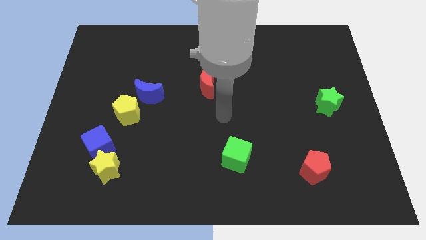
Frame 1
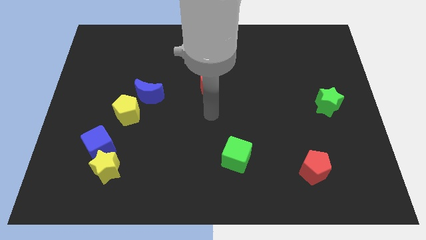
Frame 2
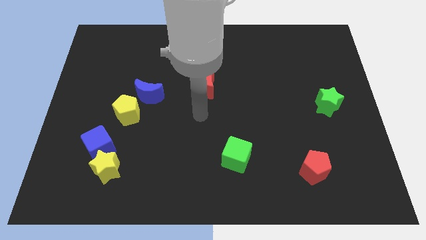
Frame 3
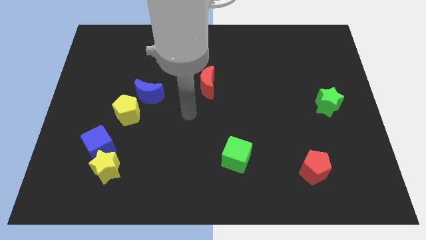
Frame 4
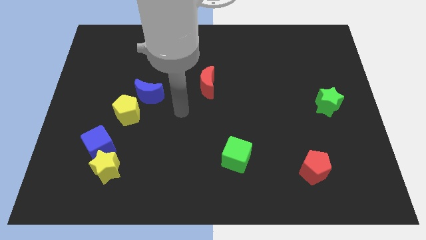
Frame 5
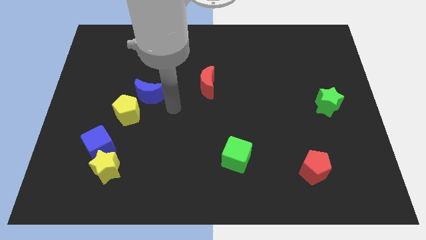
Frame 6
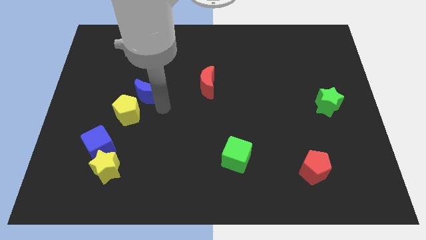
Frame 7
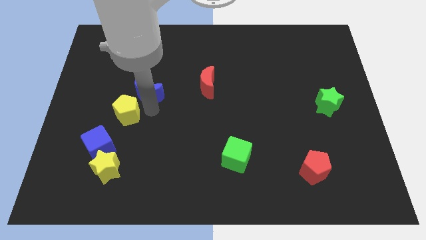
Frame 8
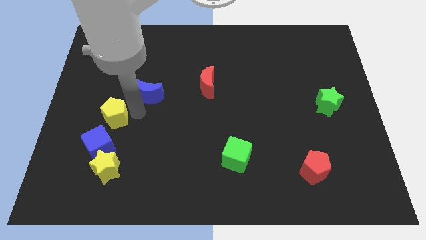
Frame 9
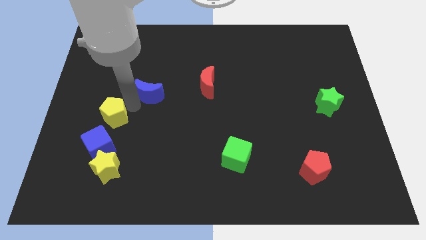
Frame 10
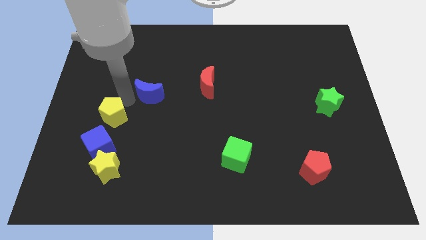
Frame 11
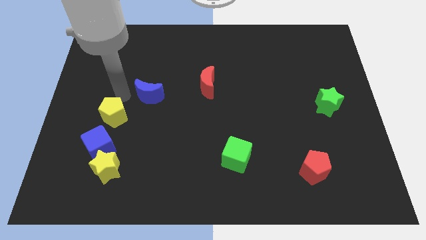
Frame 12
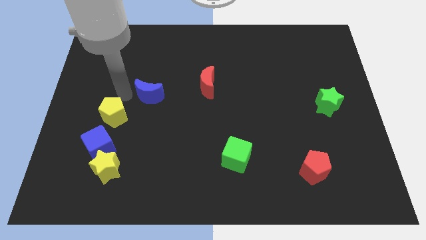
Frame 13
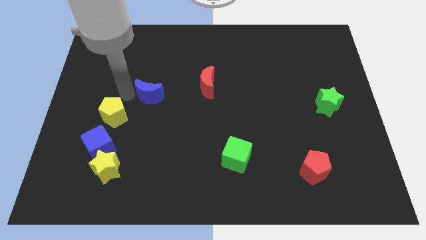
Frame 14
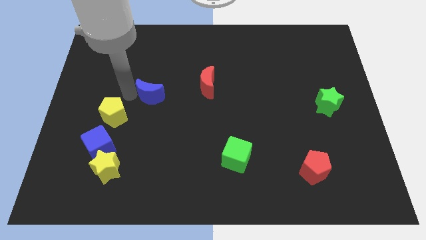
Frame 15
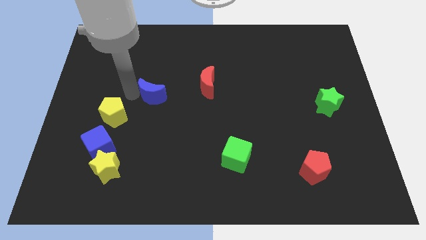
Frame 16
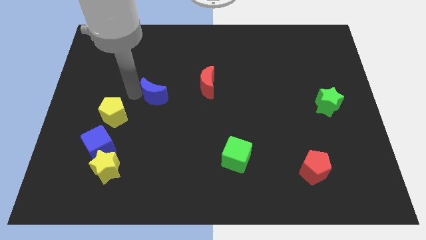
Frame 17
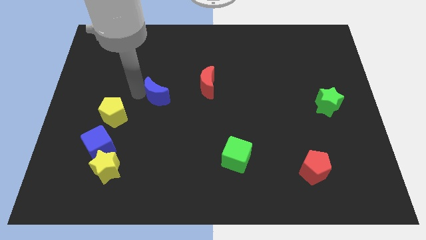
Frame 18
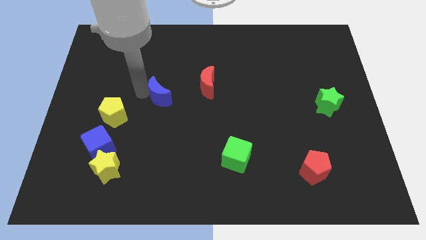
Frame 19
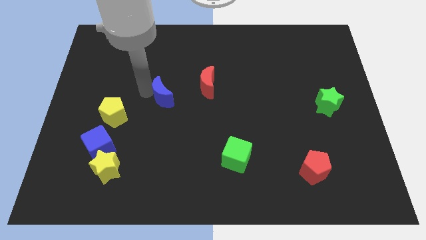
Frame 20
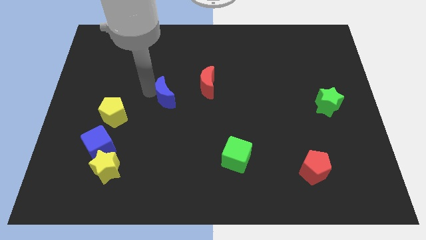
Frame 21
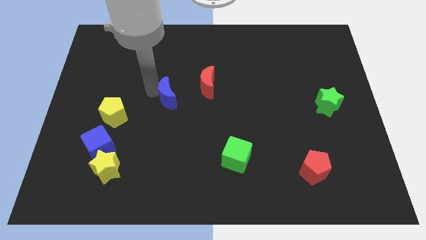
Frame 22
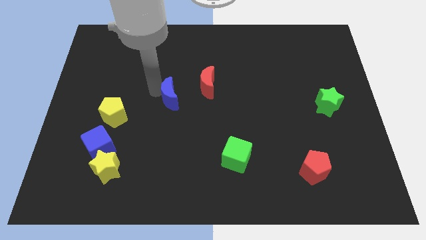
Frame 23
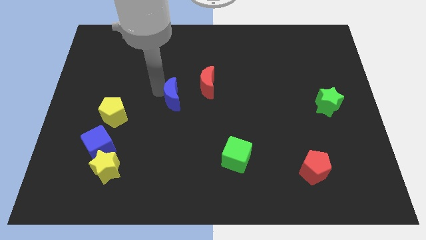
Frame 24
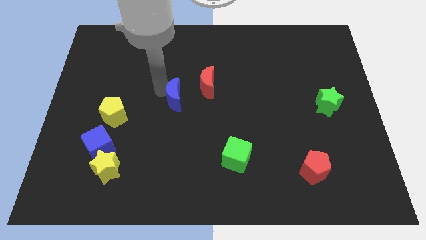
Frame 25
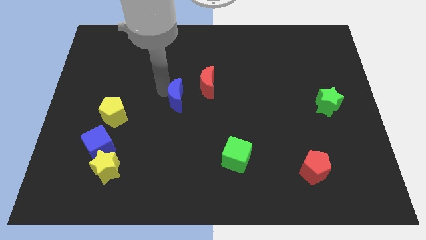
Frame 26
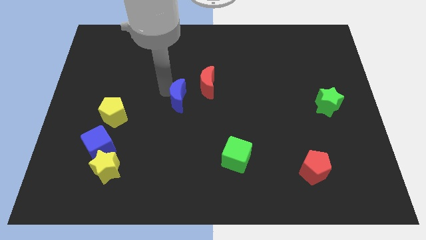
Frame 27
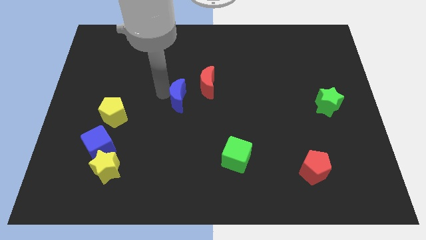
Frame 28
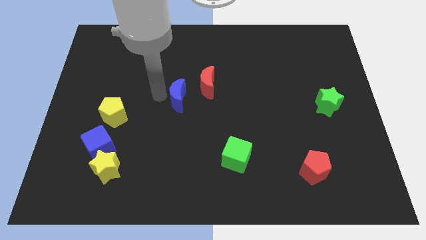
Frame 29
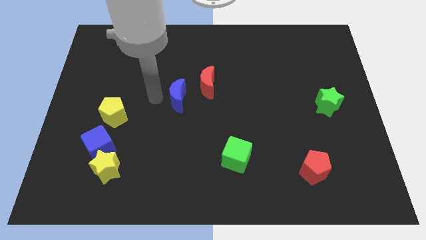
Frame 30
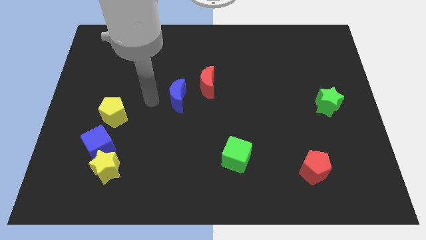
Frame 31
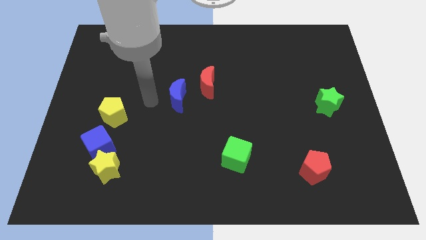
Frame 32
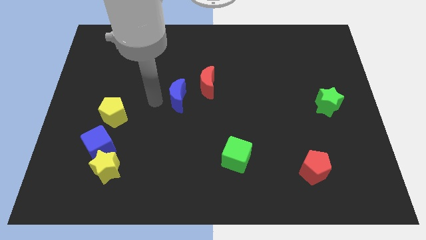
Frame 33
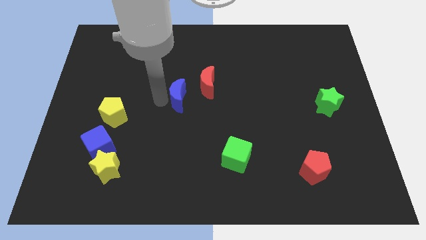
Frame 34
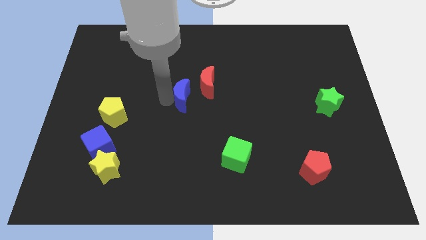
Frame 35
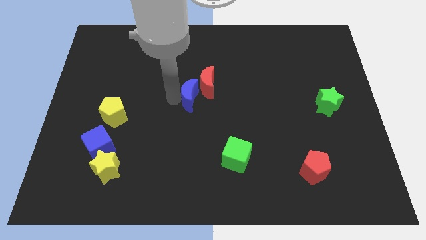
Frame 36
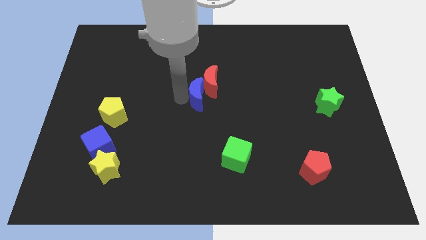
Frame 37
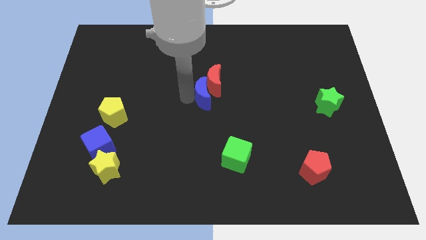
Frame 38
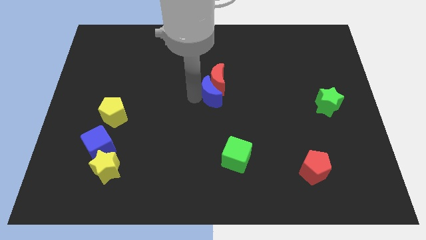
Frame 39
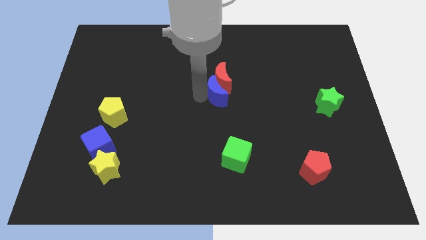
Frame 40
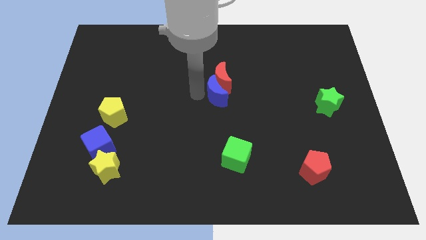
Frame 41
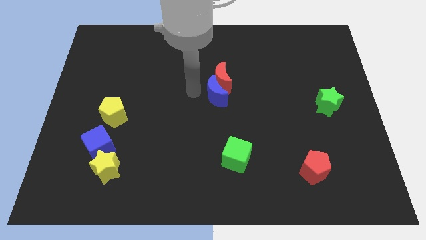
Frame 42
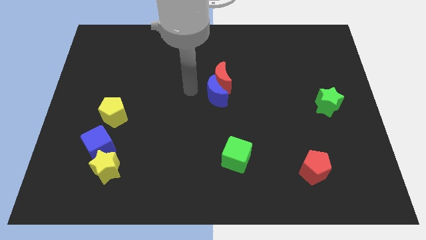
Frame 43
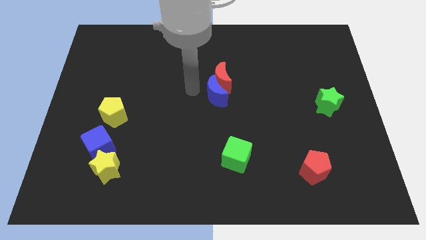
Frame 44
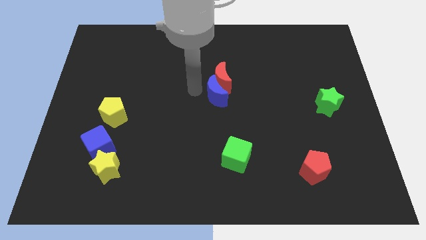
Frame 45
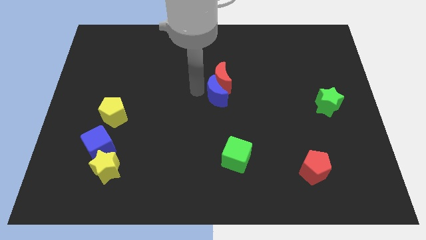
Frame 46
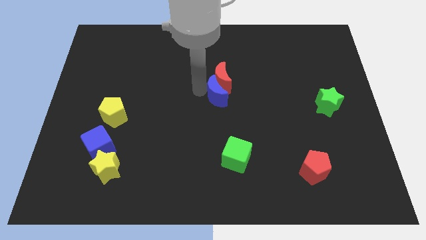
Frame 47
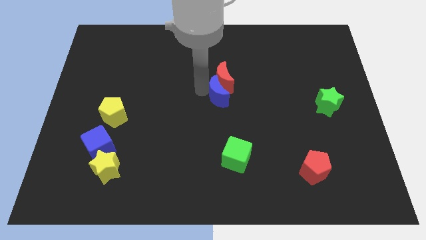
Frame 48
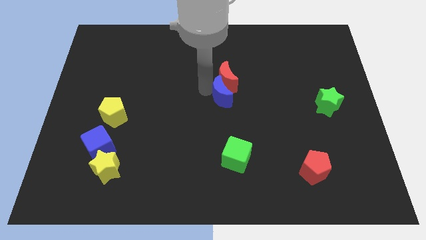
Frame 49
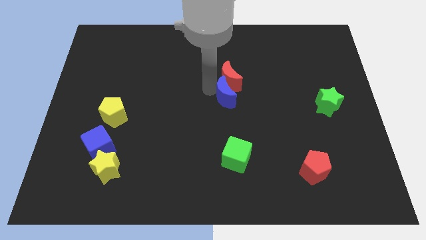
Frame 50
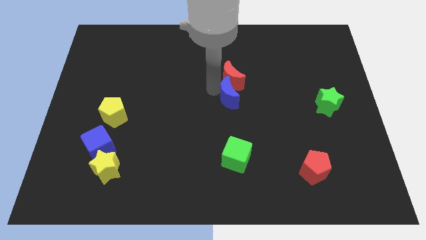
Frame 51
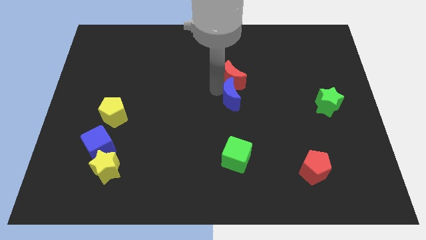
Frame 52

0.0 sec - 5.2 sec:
move the blue moon to the right

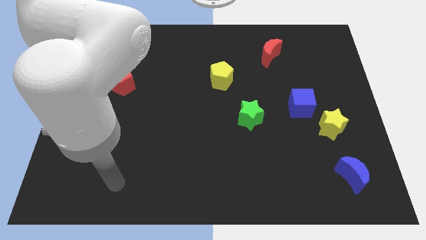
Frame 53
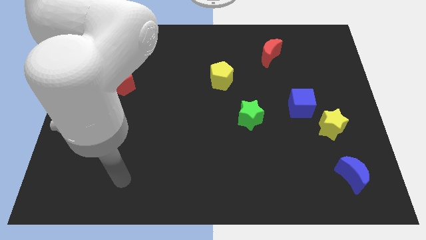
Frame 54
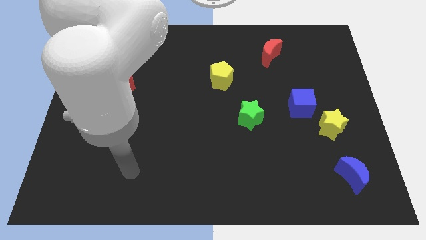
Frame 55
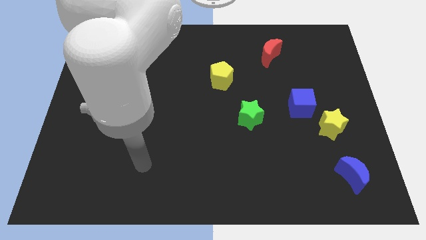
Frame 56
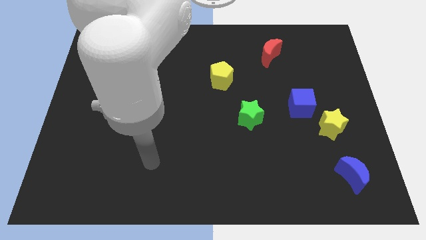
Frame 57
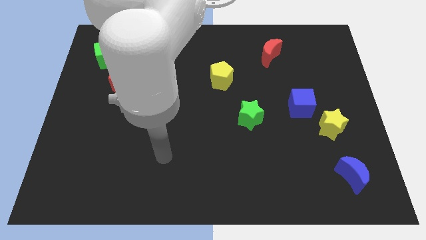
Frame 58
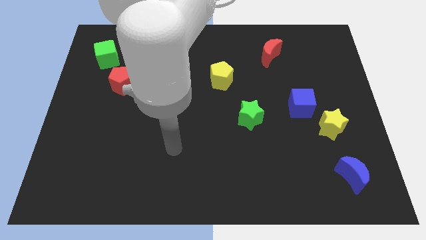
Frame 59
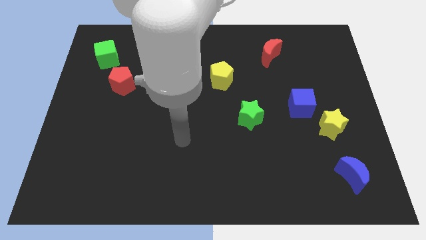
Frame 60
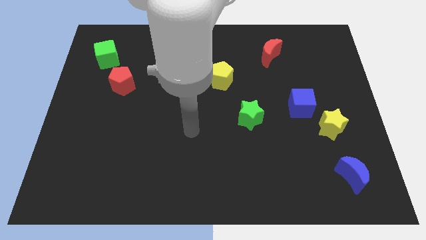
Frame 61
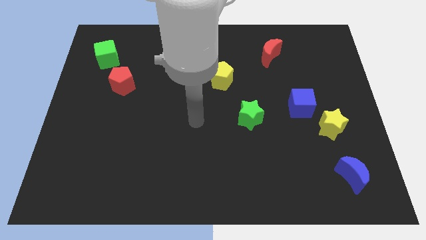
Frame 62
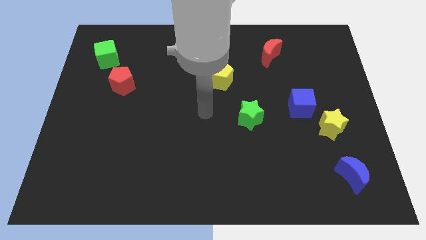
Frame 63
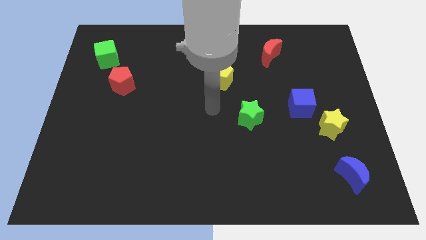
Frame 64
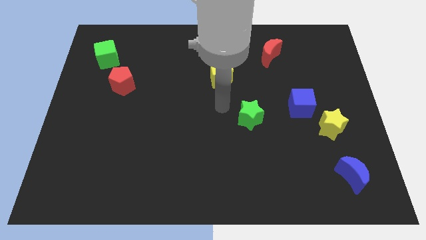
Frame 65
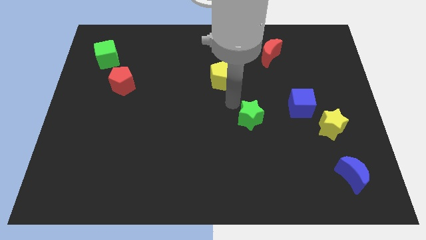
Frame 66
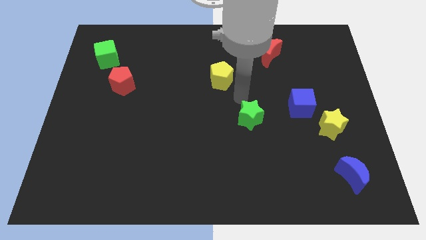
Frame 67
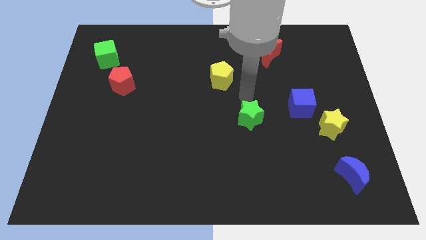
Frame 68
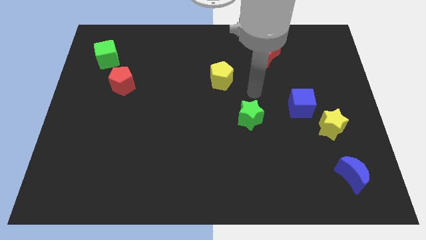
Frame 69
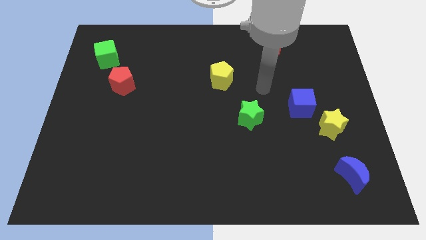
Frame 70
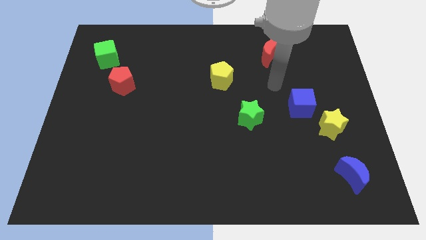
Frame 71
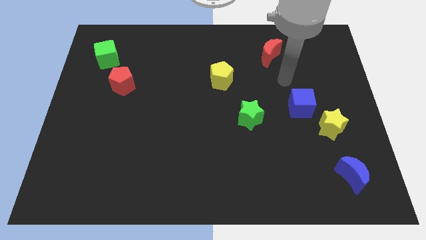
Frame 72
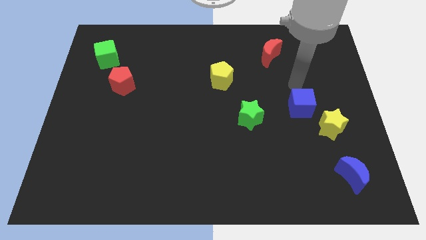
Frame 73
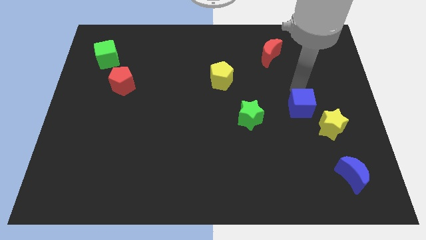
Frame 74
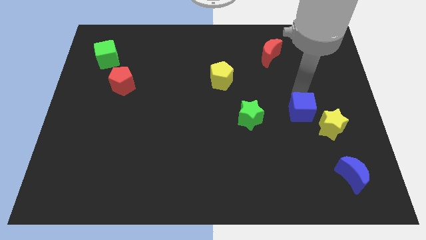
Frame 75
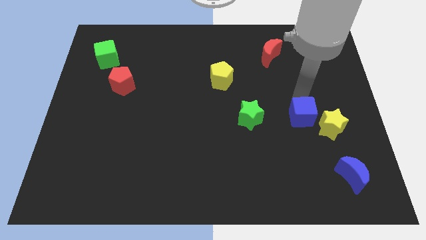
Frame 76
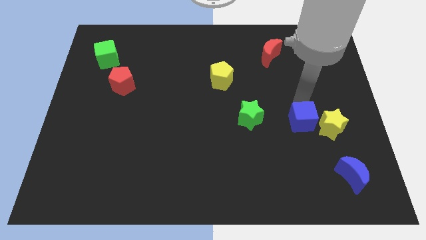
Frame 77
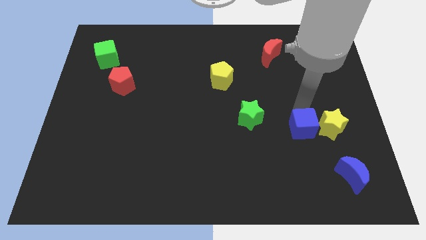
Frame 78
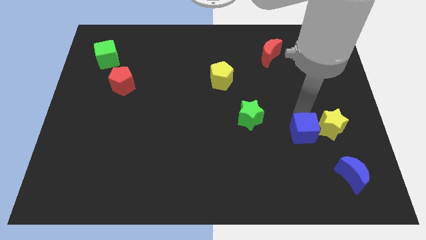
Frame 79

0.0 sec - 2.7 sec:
move the blue cube somewhat downwards
